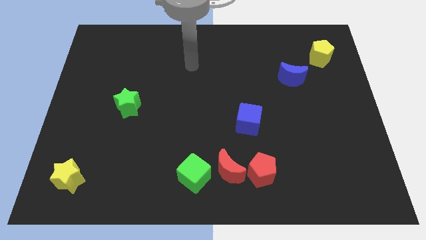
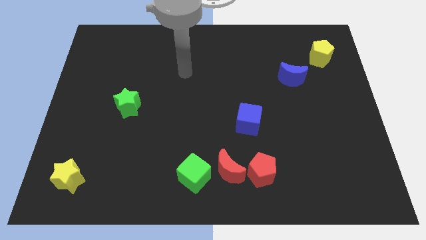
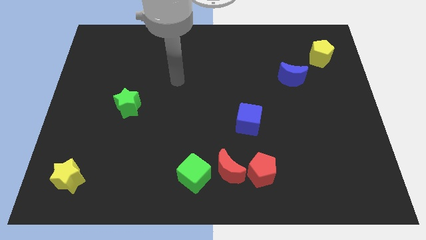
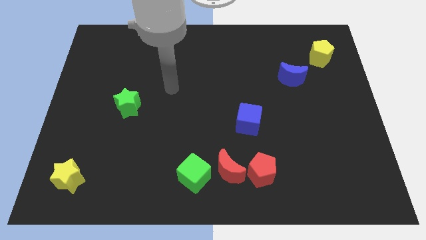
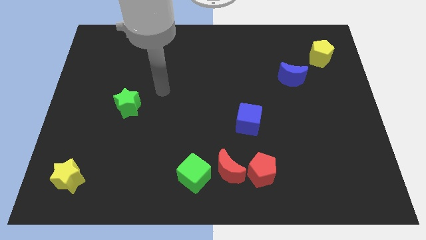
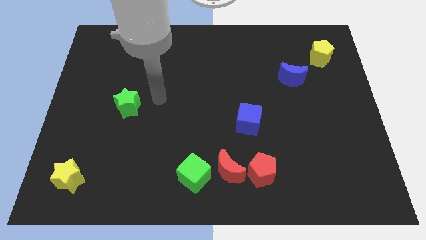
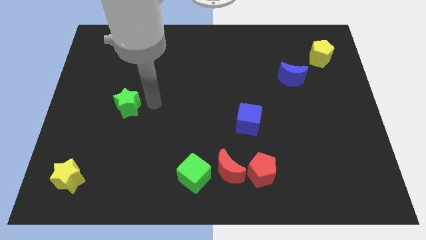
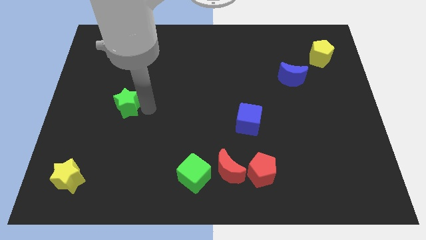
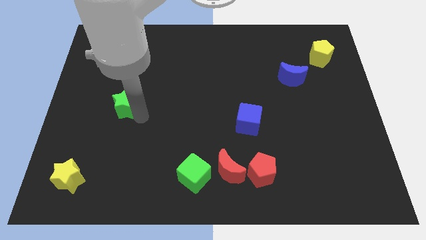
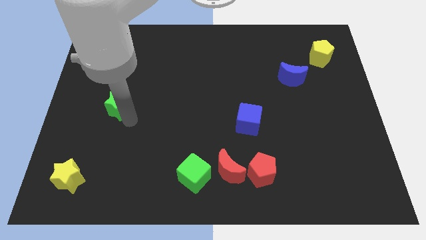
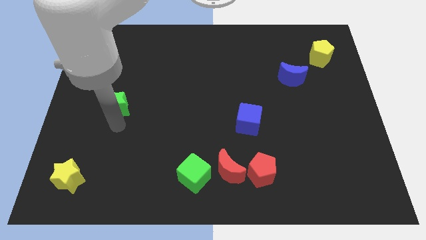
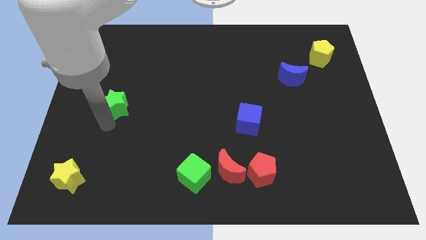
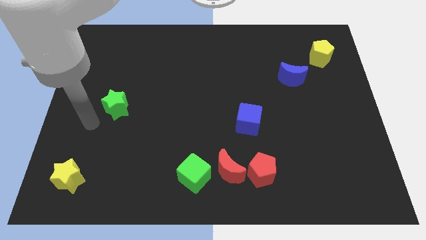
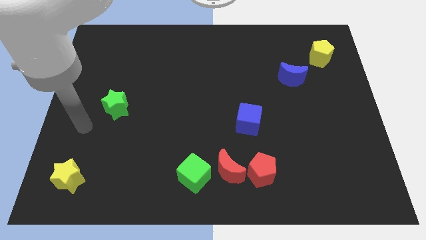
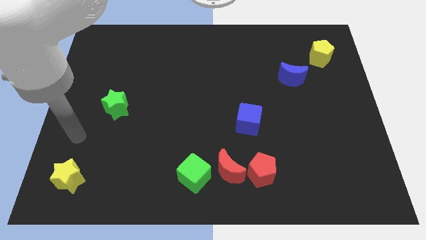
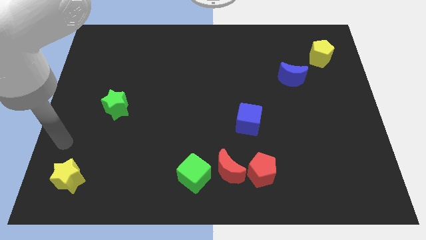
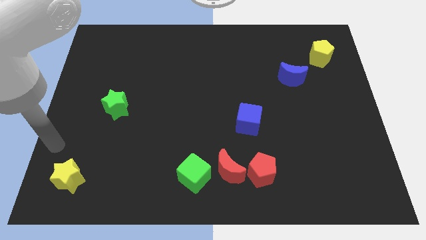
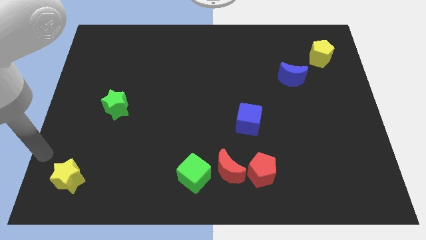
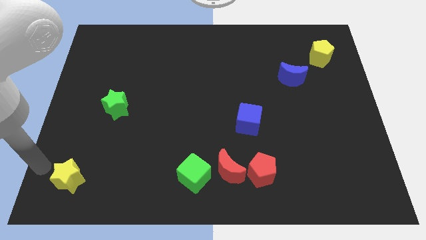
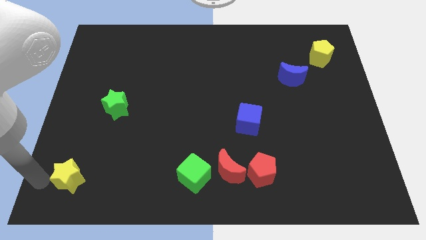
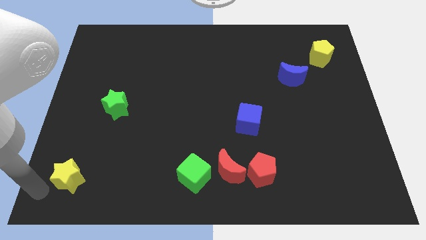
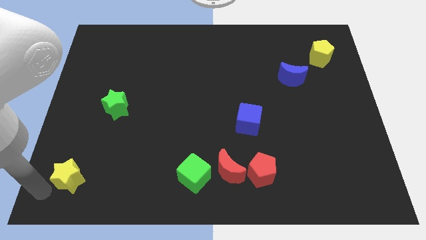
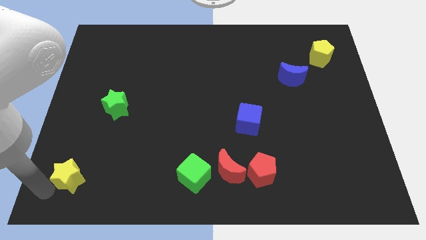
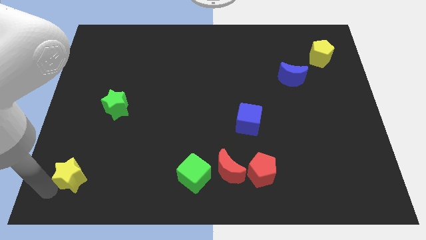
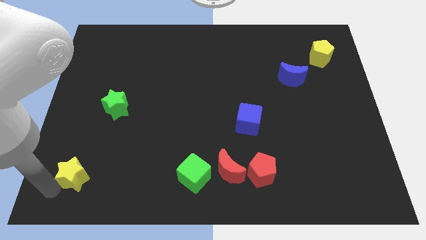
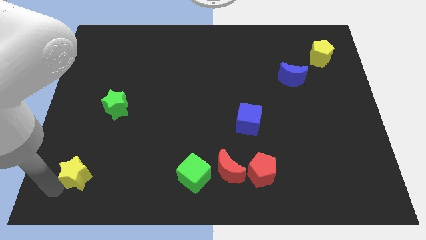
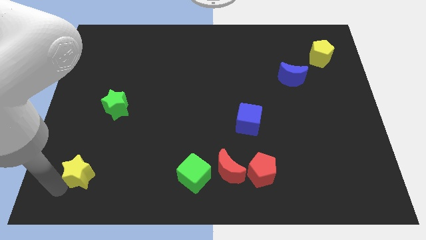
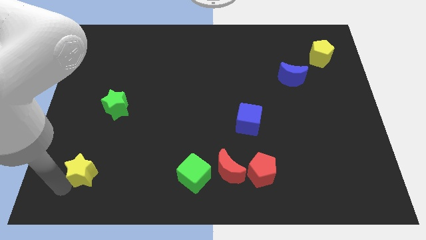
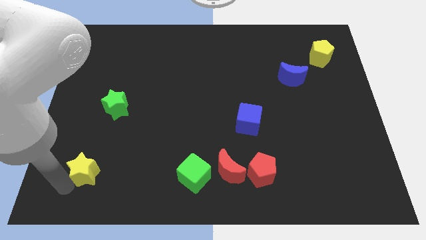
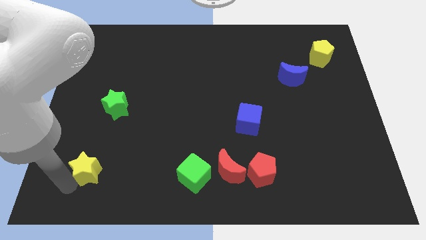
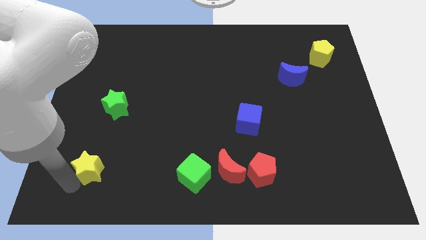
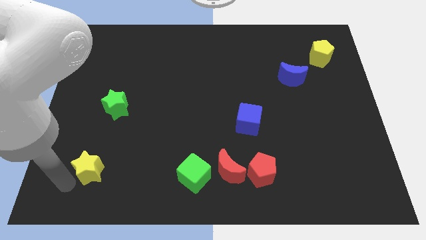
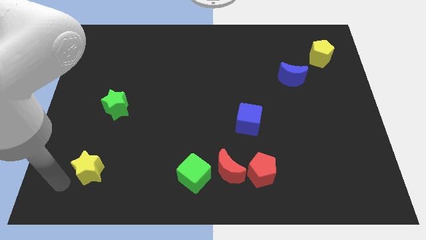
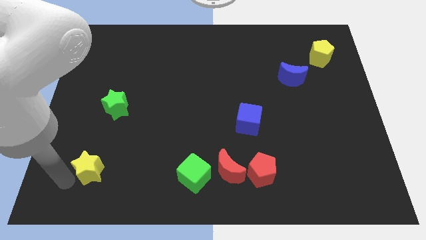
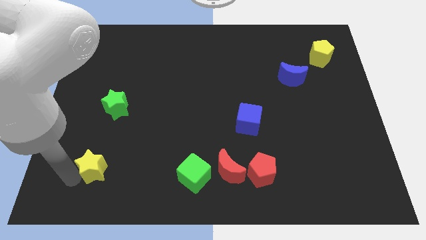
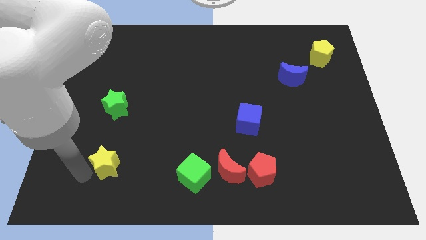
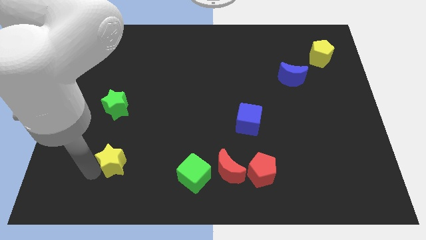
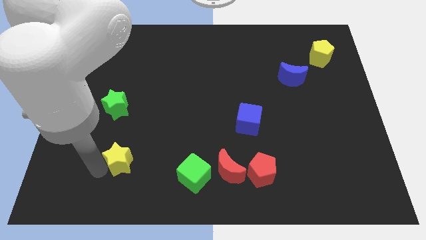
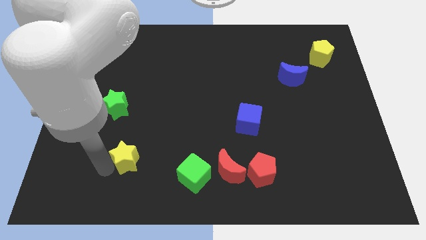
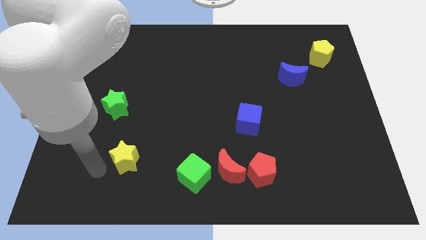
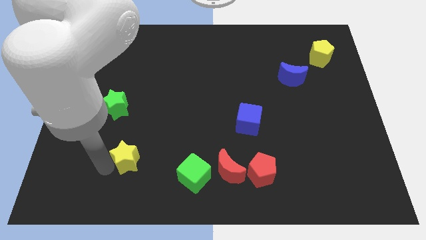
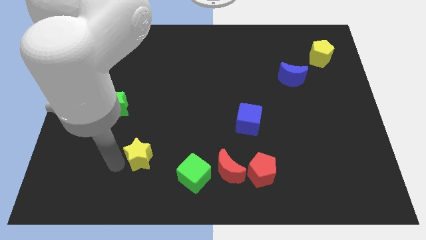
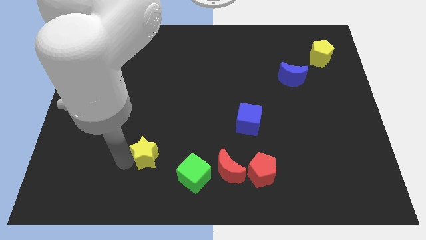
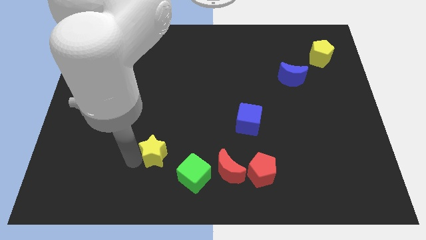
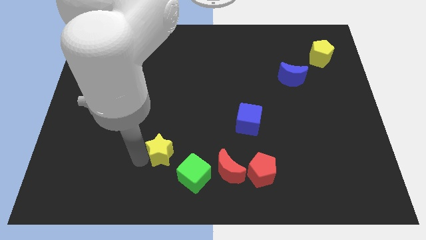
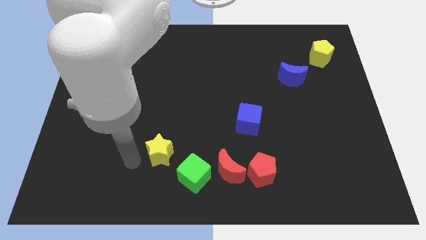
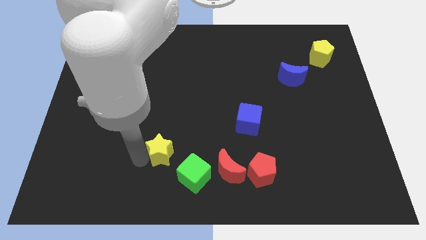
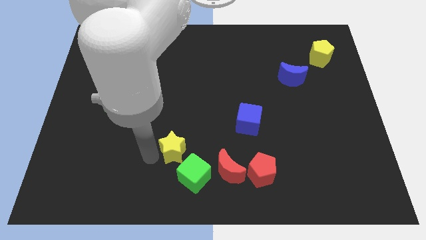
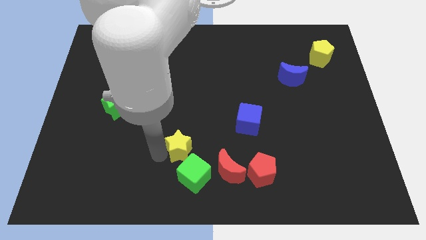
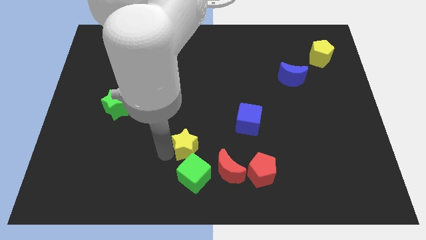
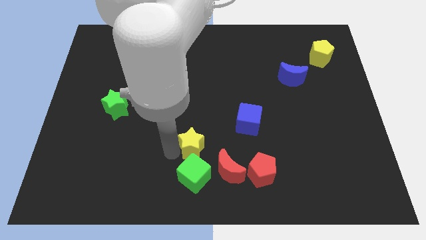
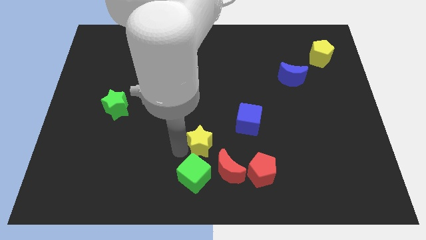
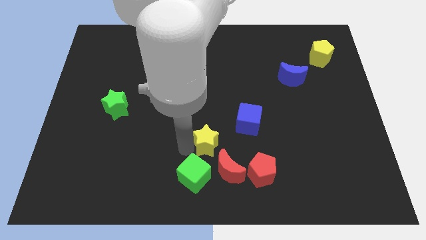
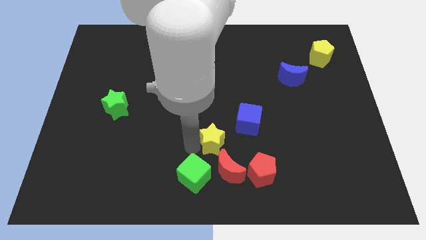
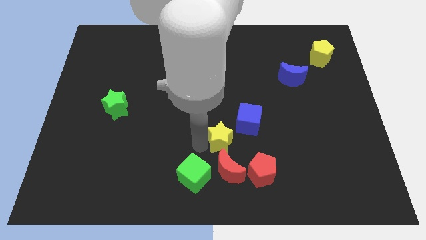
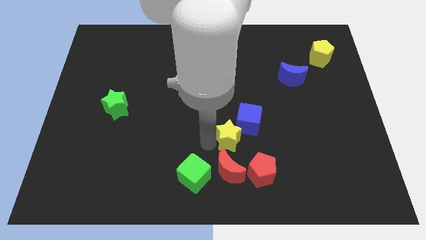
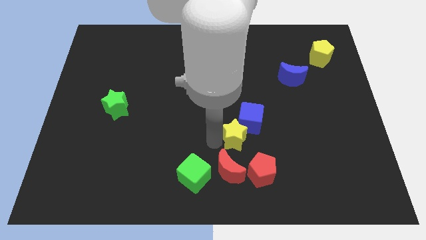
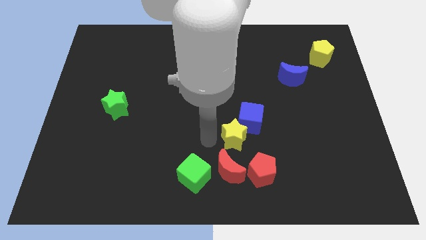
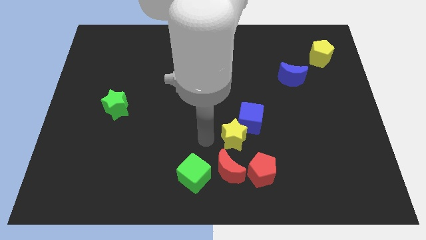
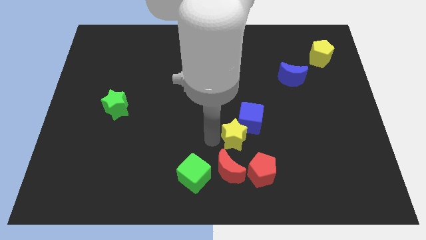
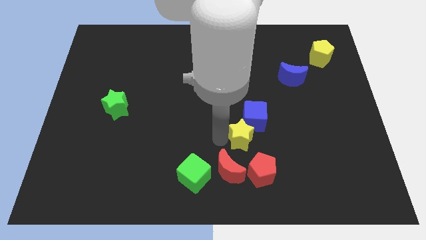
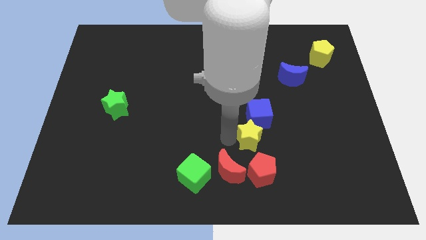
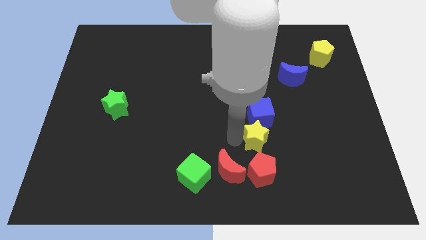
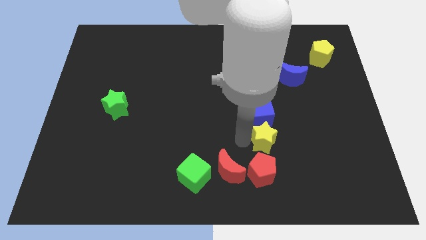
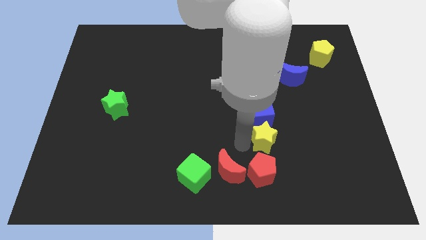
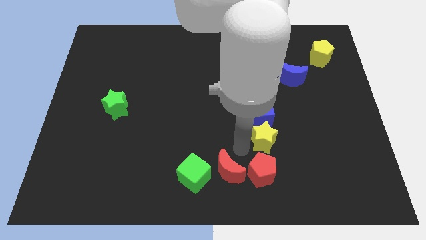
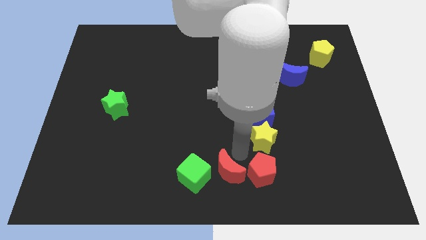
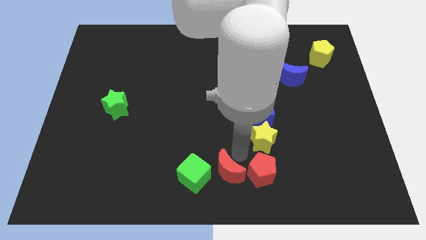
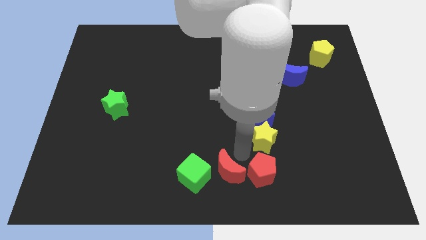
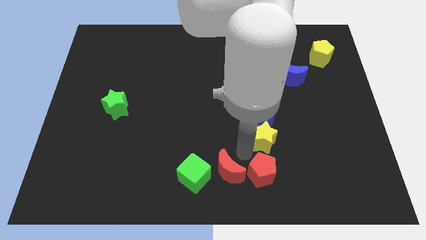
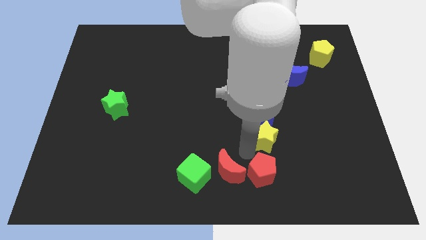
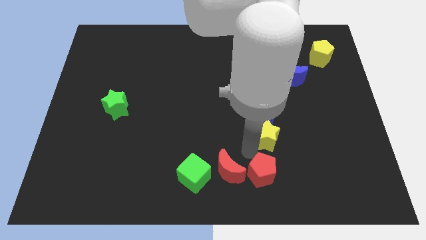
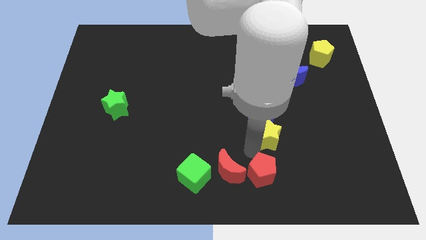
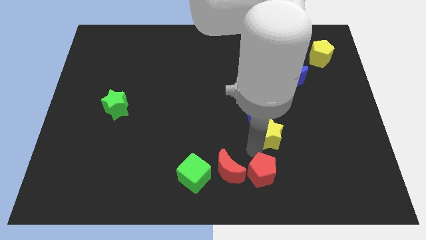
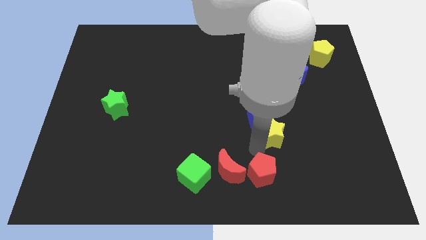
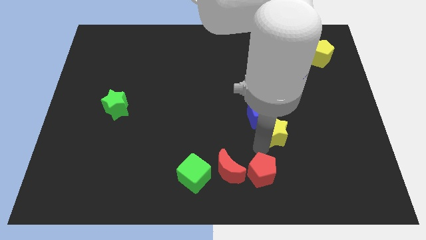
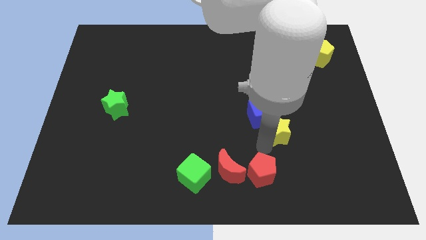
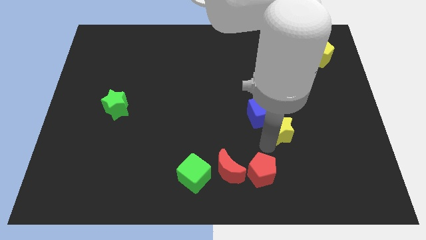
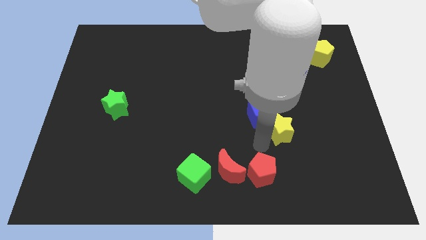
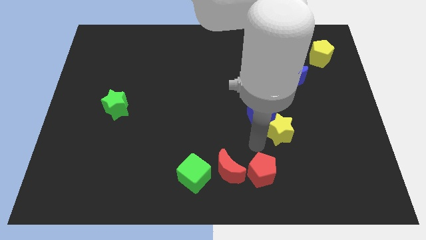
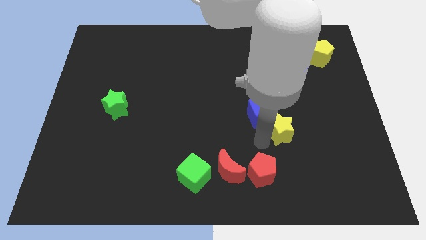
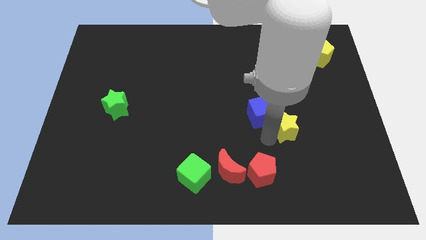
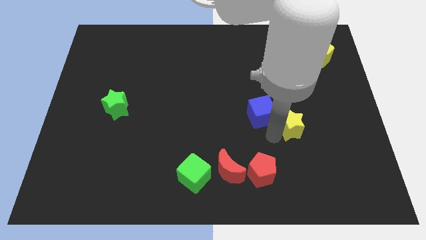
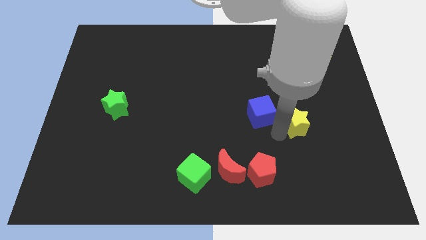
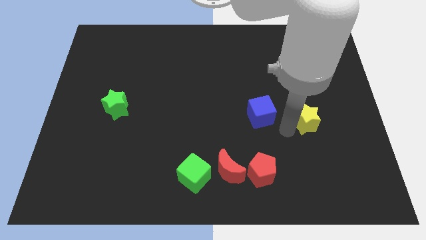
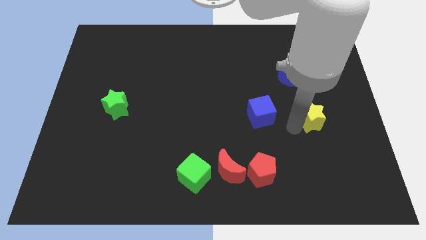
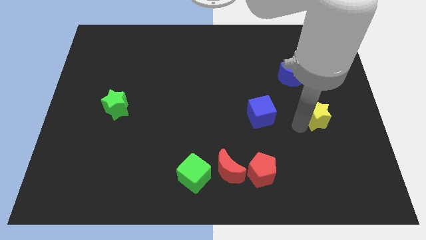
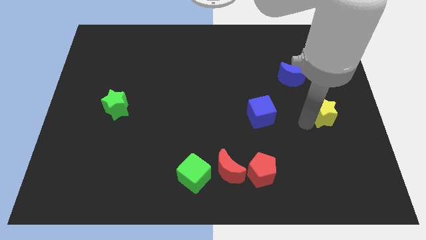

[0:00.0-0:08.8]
move the yellow star to the right side of the board
